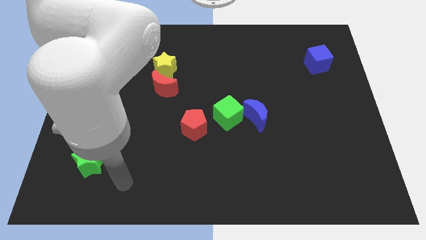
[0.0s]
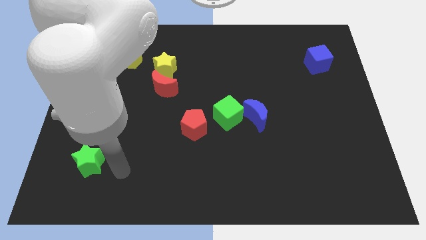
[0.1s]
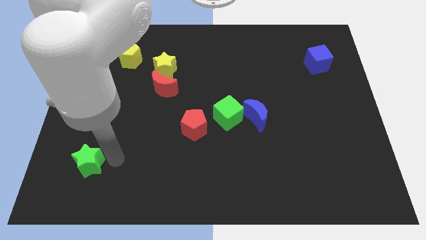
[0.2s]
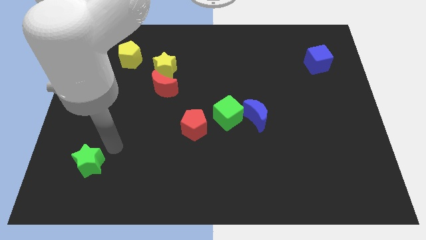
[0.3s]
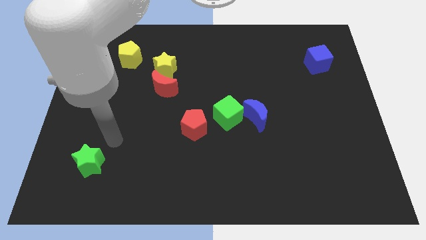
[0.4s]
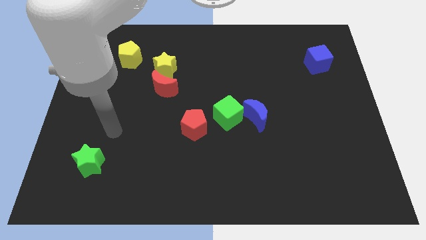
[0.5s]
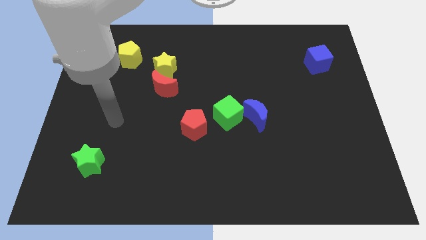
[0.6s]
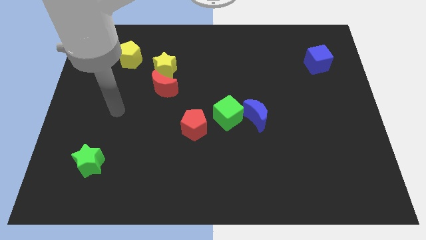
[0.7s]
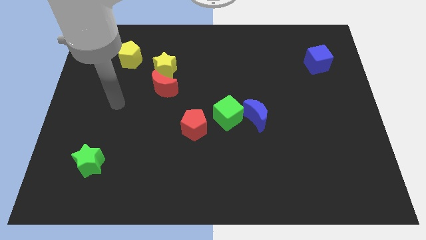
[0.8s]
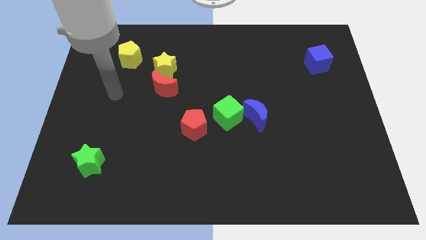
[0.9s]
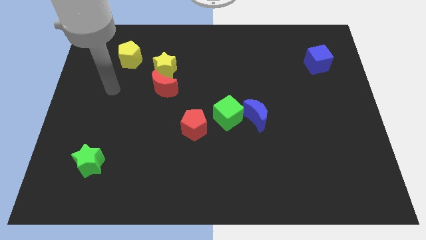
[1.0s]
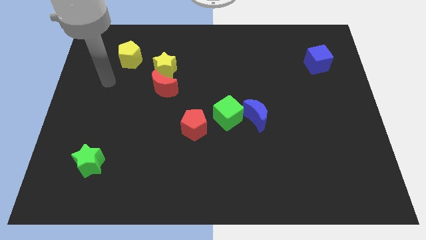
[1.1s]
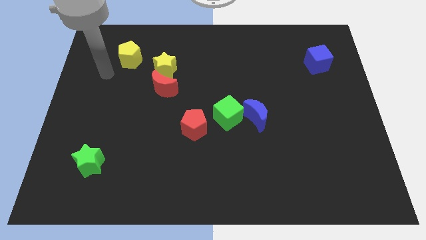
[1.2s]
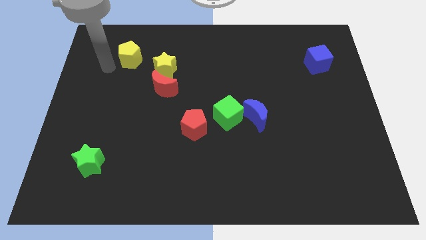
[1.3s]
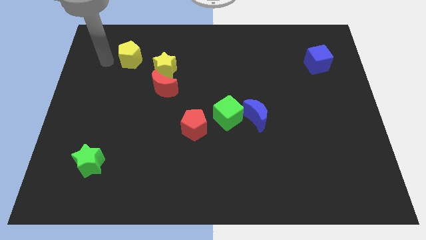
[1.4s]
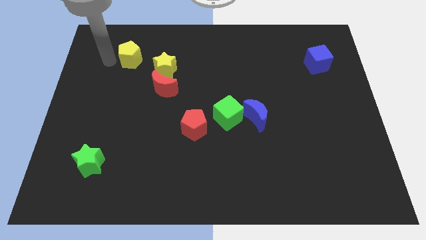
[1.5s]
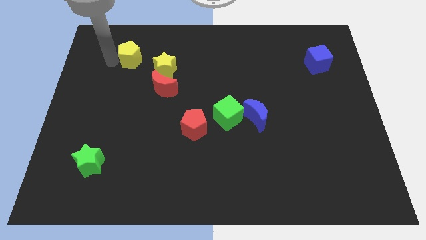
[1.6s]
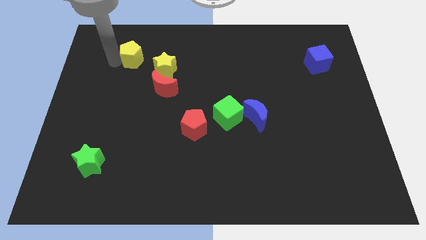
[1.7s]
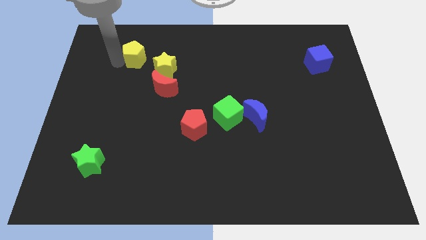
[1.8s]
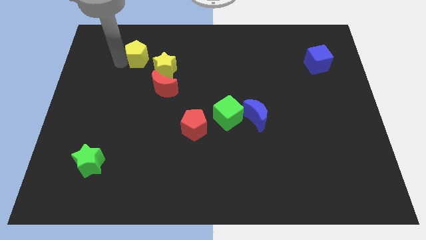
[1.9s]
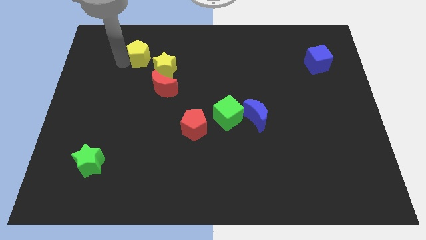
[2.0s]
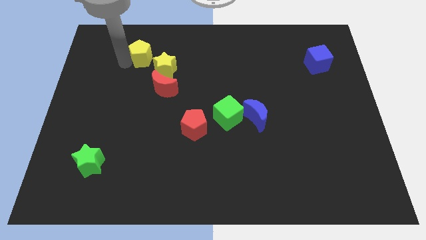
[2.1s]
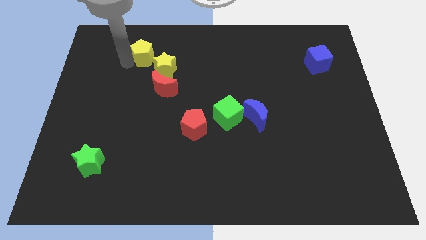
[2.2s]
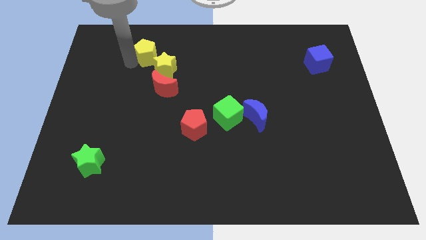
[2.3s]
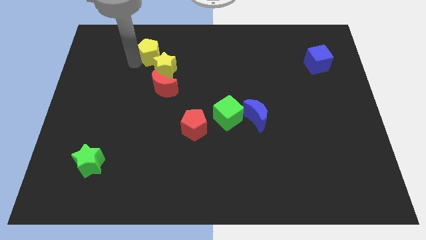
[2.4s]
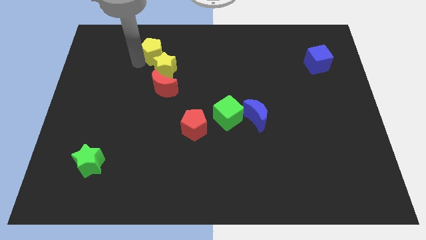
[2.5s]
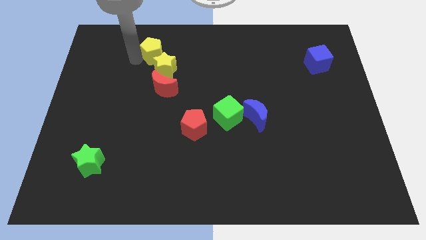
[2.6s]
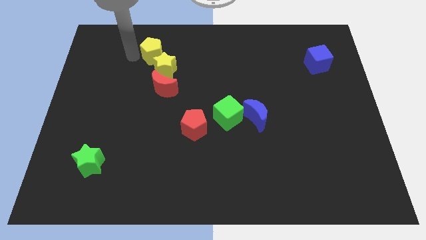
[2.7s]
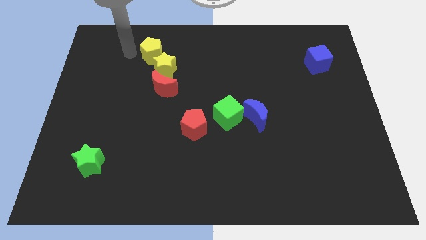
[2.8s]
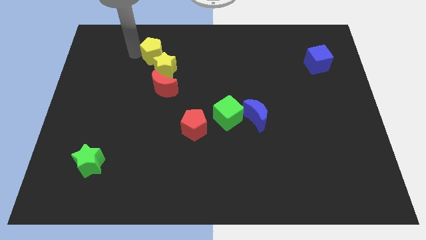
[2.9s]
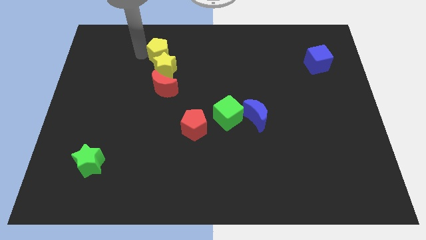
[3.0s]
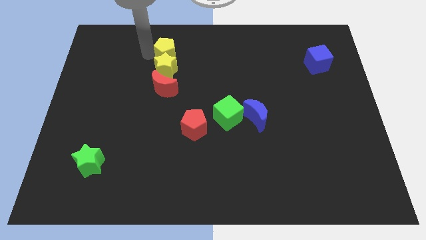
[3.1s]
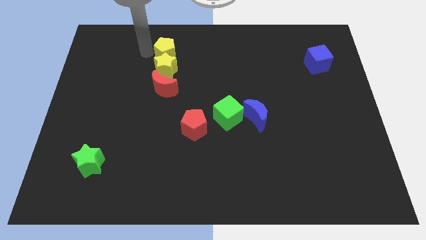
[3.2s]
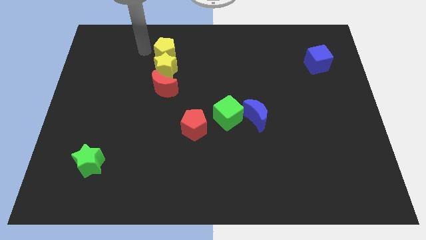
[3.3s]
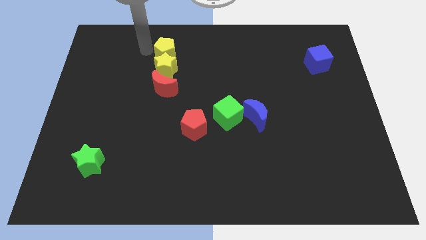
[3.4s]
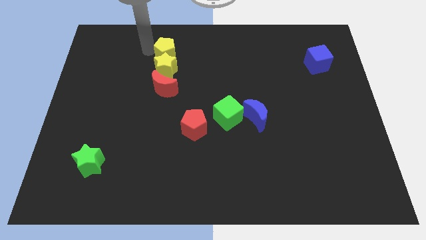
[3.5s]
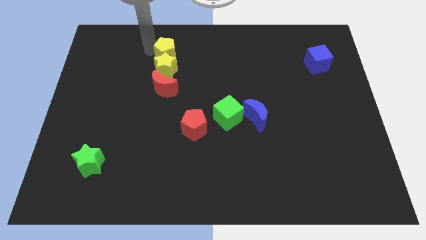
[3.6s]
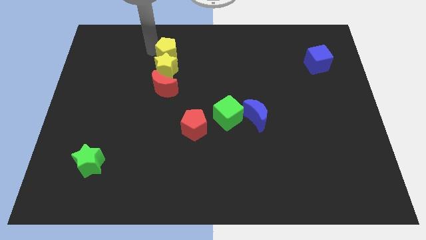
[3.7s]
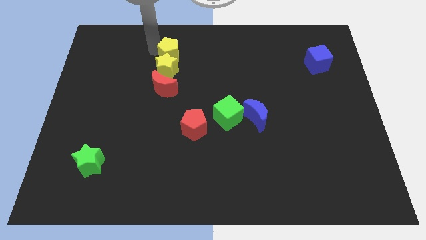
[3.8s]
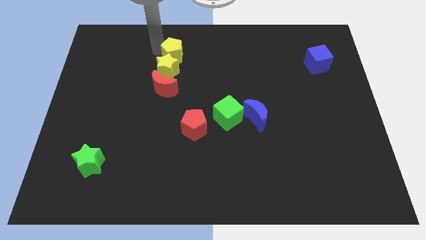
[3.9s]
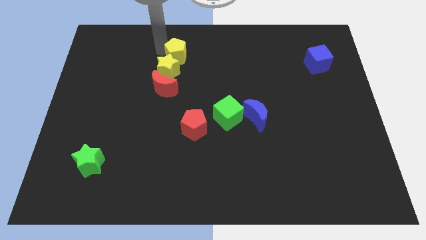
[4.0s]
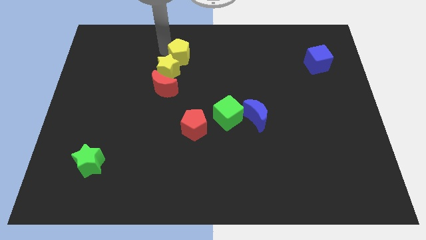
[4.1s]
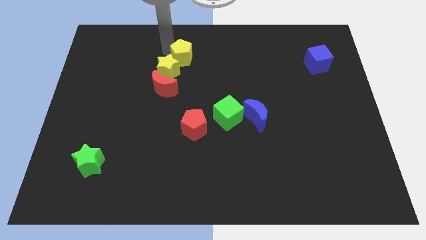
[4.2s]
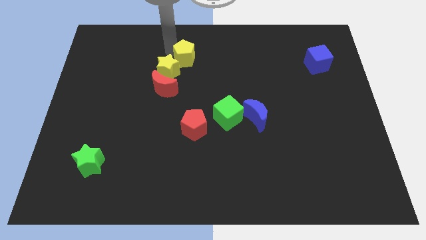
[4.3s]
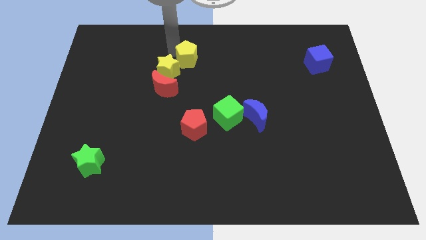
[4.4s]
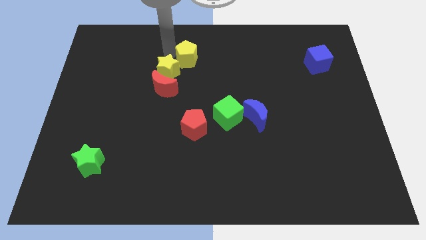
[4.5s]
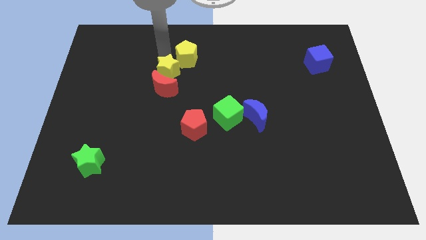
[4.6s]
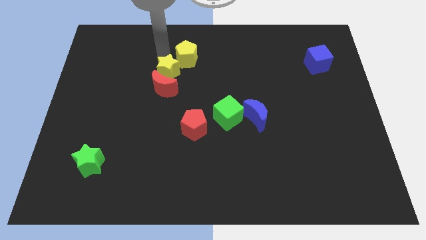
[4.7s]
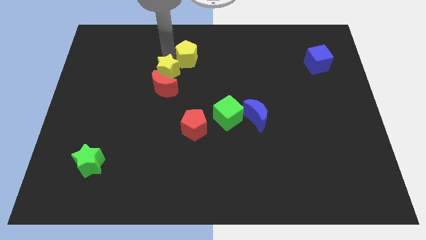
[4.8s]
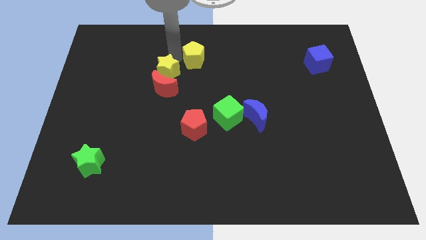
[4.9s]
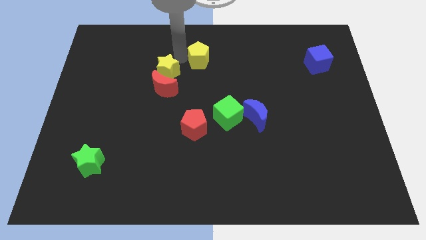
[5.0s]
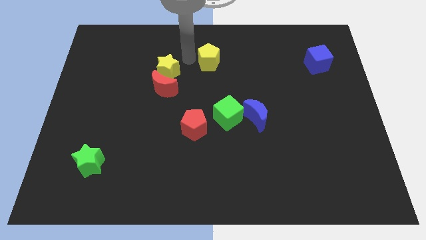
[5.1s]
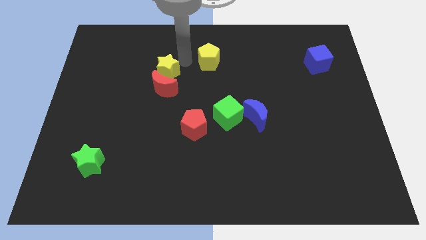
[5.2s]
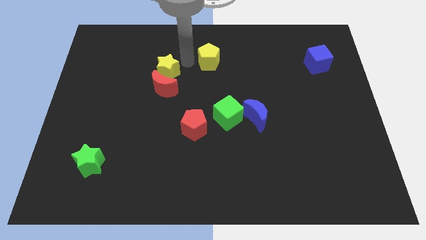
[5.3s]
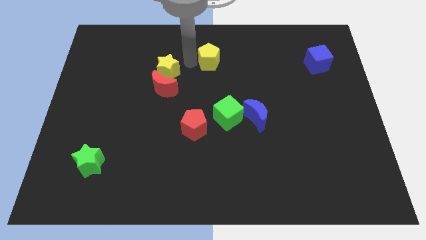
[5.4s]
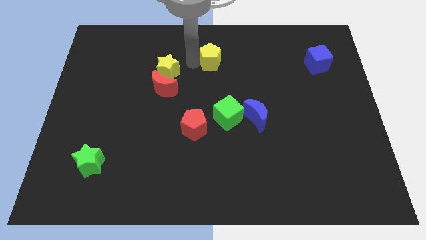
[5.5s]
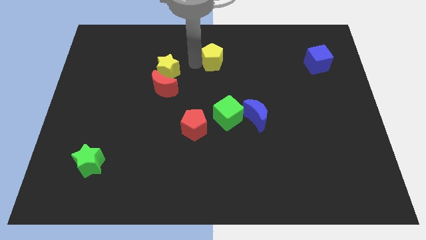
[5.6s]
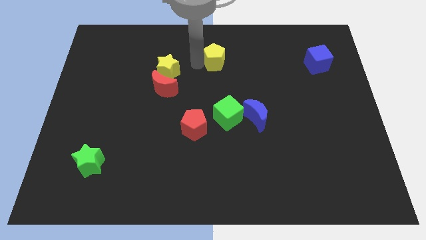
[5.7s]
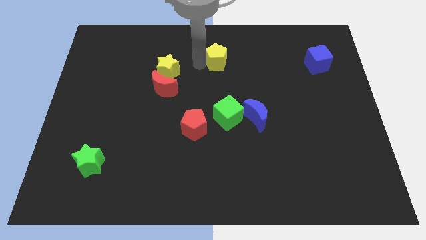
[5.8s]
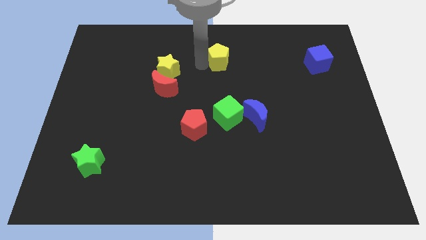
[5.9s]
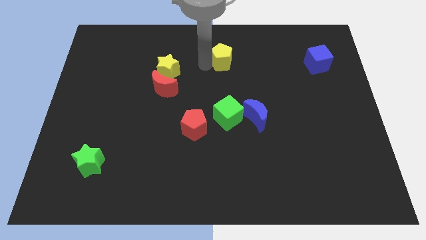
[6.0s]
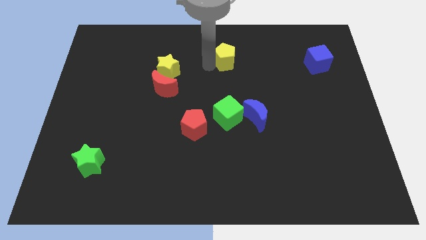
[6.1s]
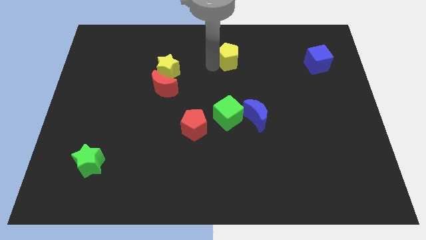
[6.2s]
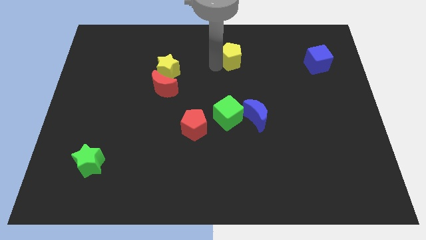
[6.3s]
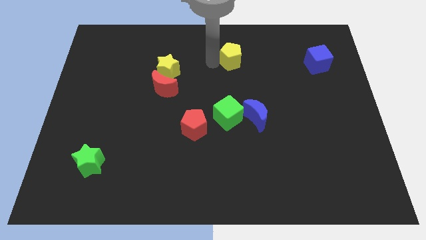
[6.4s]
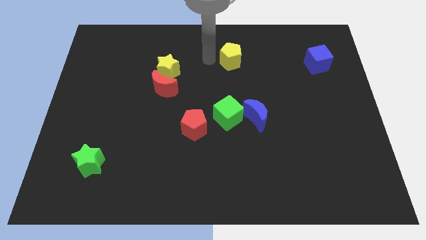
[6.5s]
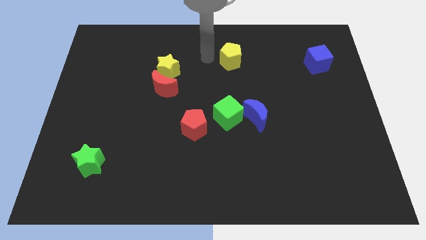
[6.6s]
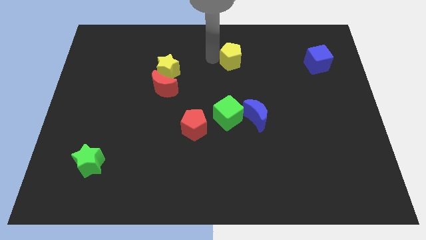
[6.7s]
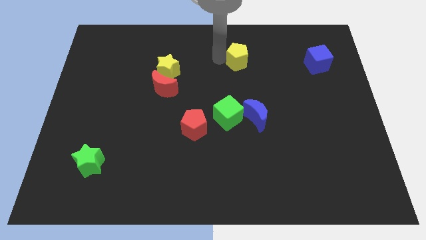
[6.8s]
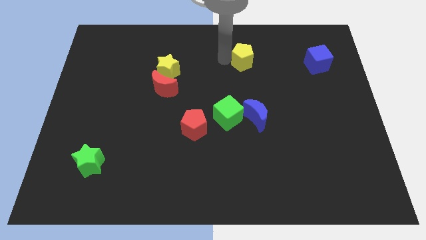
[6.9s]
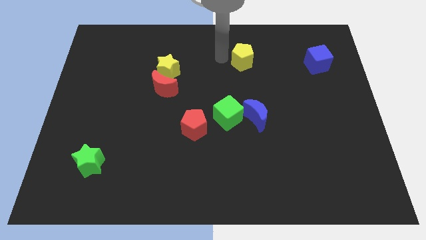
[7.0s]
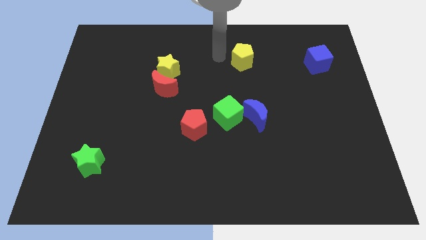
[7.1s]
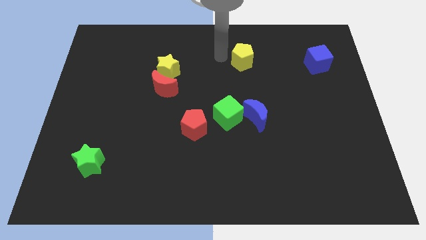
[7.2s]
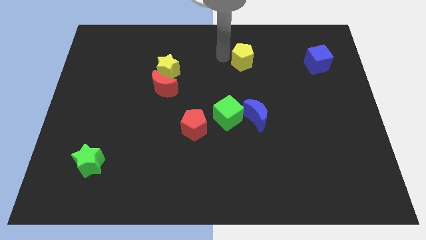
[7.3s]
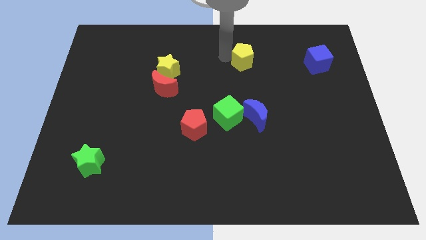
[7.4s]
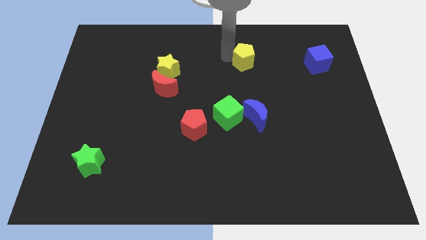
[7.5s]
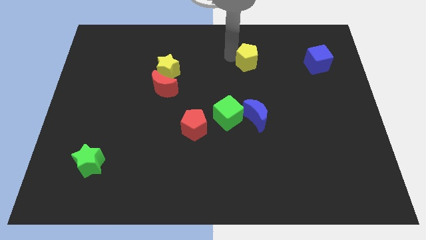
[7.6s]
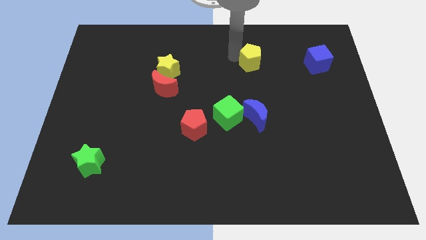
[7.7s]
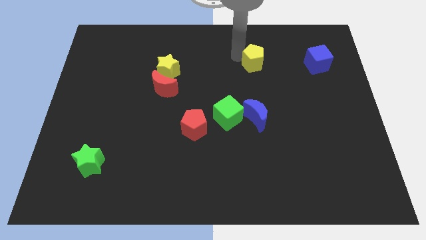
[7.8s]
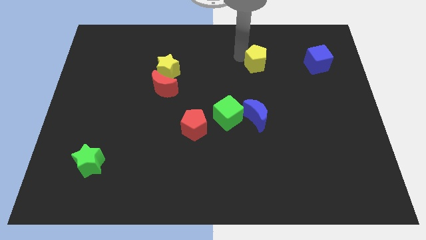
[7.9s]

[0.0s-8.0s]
move the yellow pentagon to the left side of the blue cube

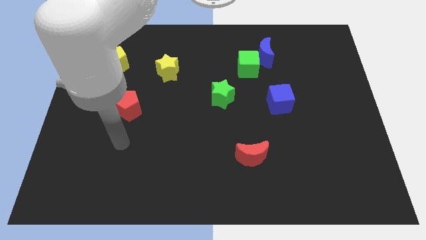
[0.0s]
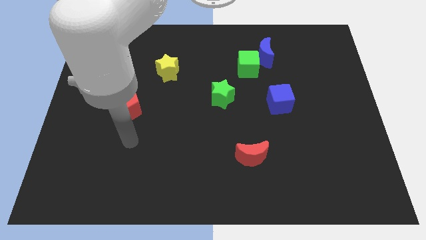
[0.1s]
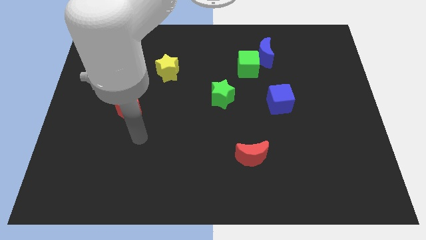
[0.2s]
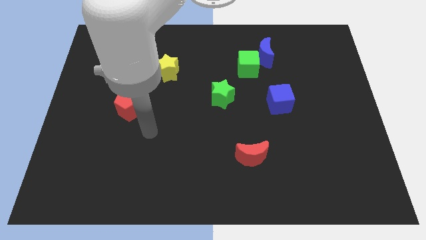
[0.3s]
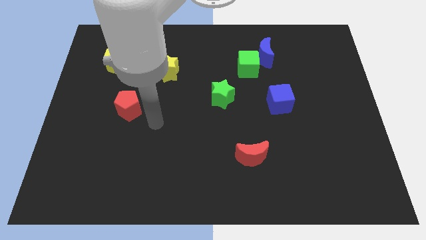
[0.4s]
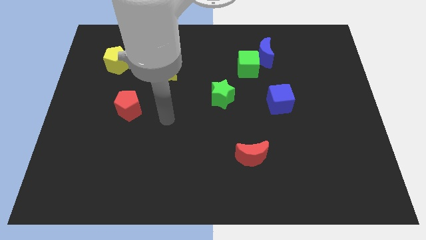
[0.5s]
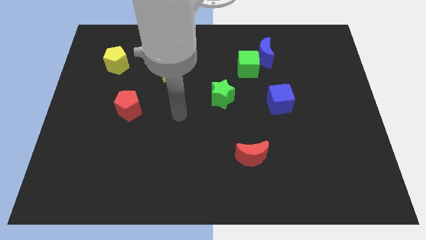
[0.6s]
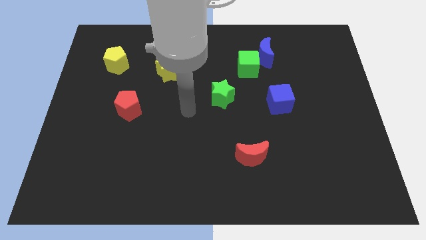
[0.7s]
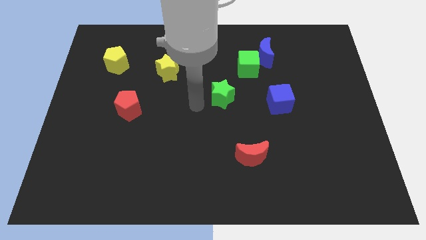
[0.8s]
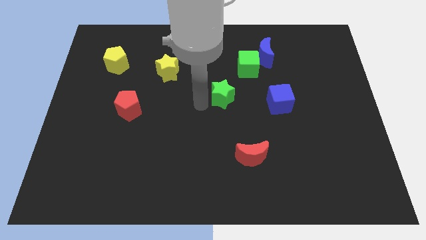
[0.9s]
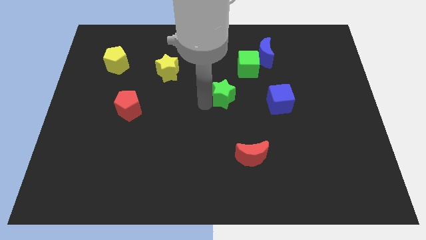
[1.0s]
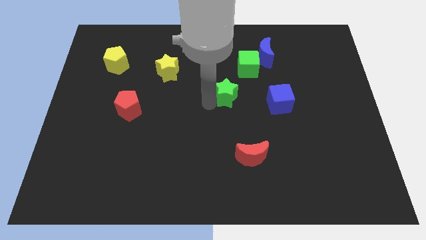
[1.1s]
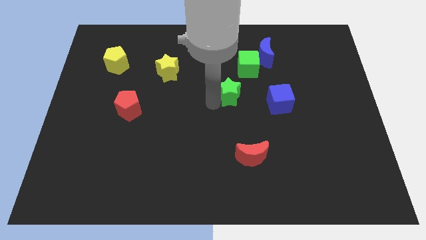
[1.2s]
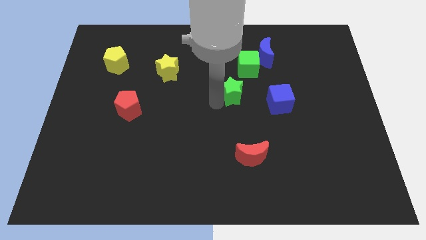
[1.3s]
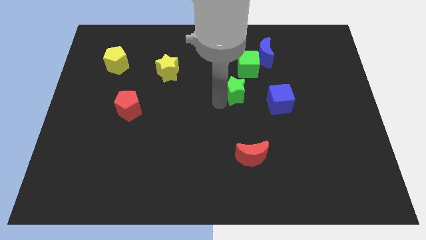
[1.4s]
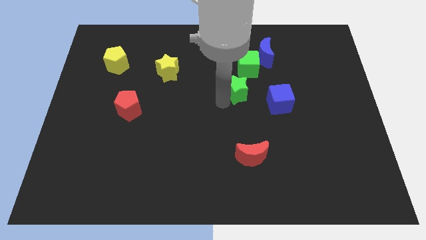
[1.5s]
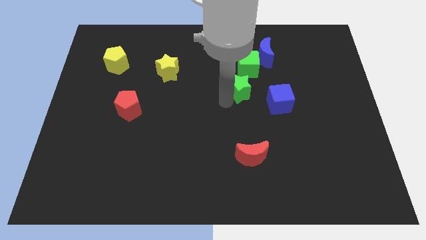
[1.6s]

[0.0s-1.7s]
push the green star diagonally up and to the left of the blue cube
